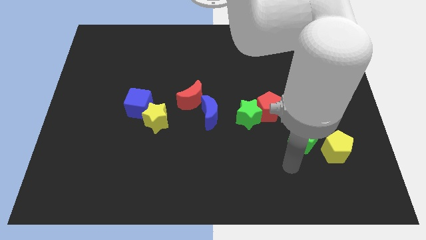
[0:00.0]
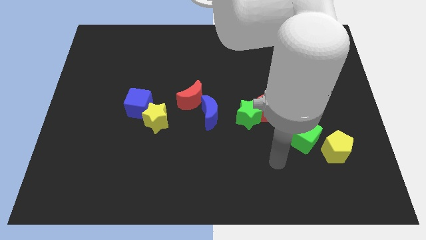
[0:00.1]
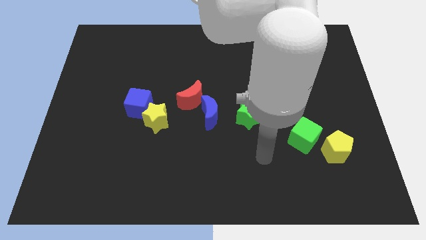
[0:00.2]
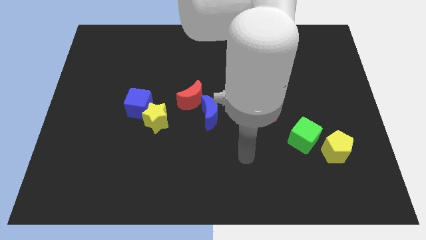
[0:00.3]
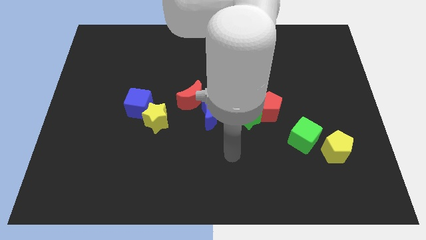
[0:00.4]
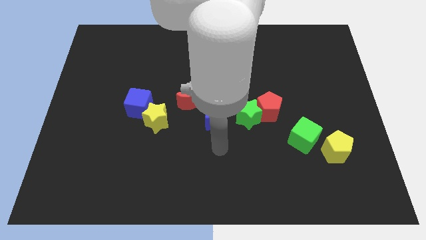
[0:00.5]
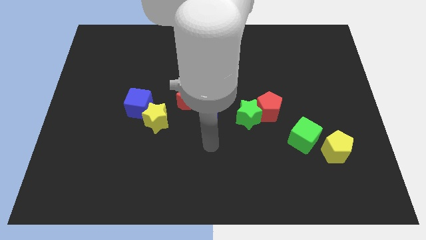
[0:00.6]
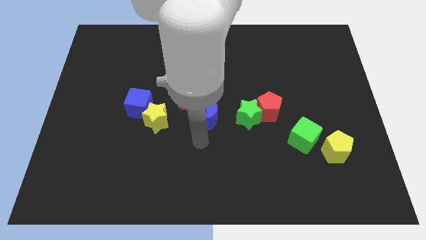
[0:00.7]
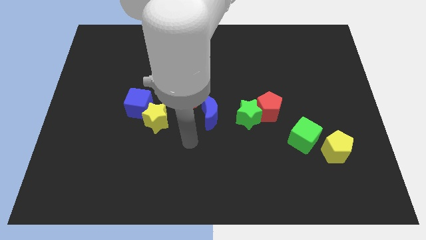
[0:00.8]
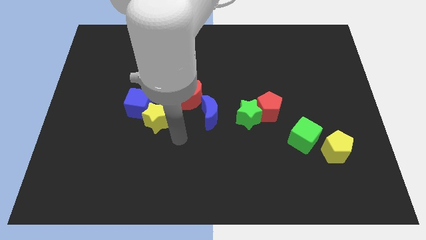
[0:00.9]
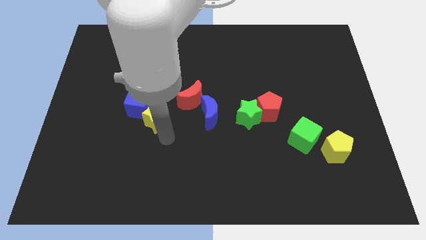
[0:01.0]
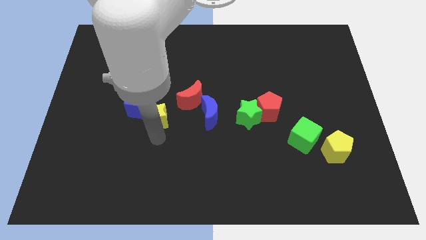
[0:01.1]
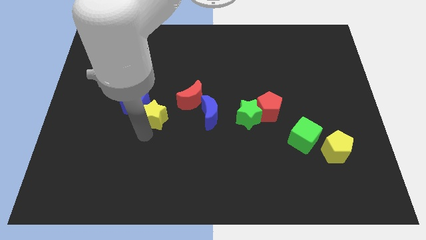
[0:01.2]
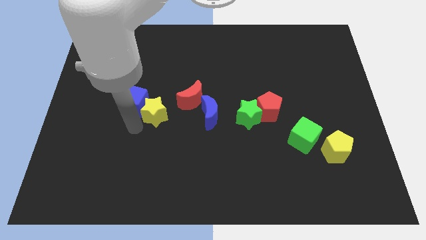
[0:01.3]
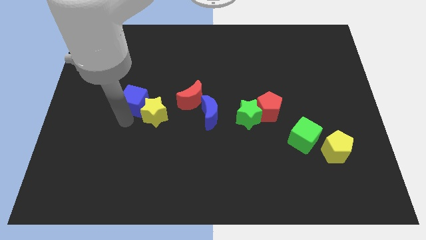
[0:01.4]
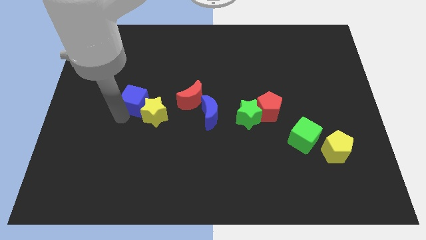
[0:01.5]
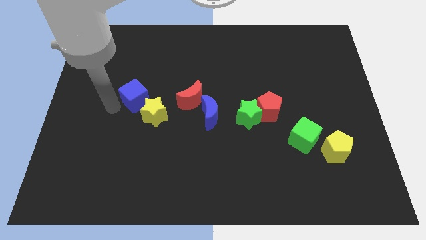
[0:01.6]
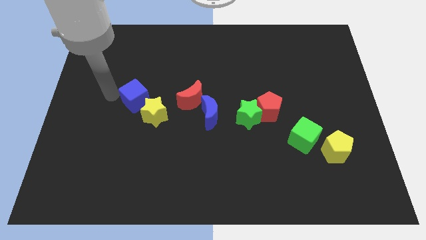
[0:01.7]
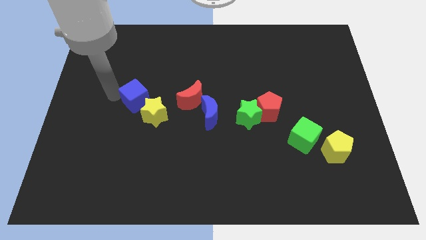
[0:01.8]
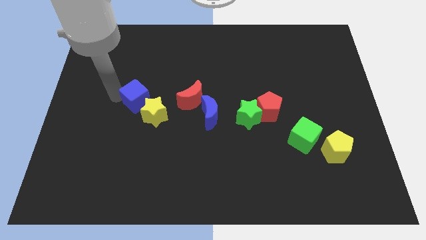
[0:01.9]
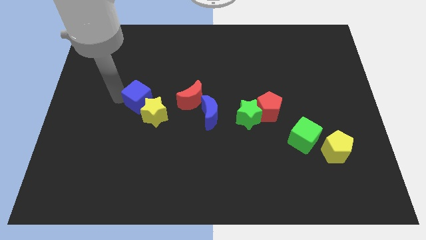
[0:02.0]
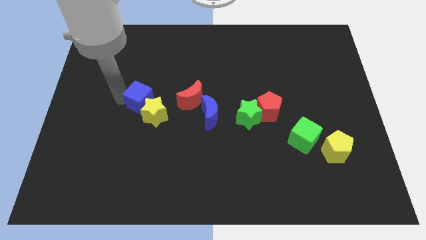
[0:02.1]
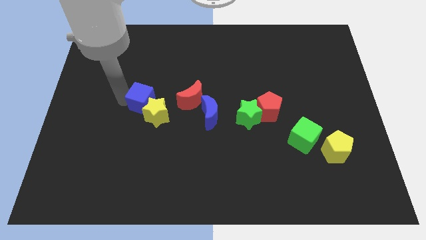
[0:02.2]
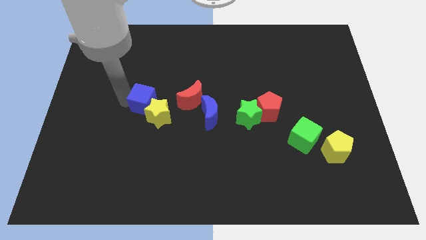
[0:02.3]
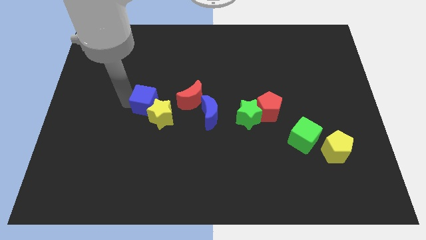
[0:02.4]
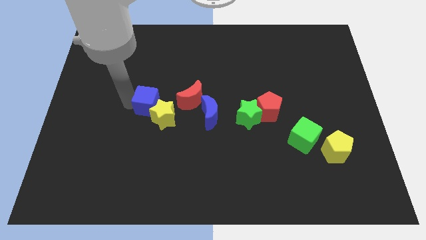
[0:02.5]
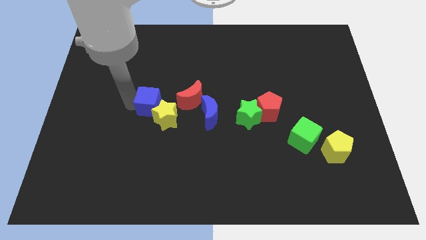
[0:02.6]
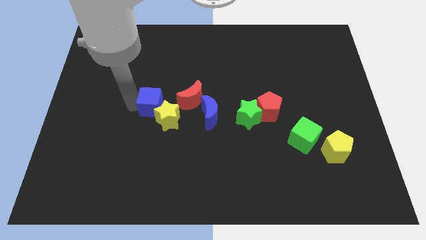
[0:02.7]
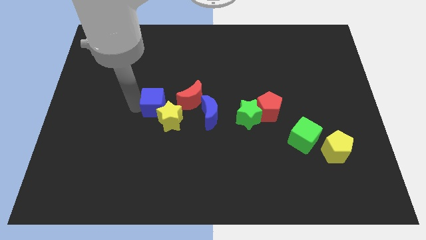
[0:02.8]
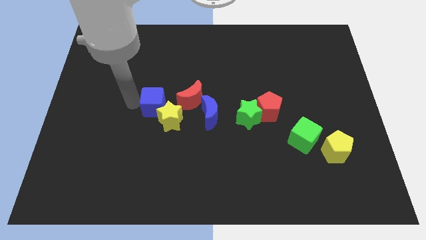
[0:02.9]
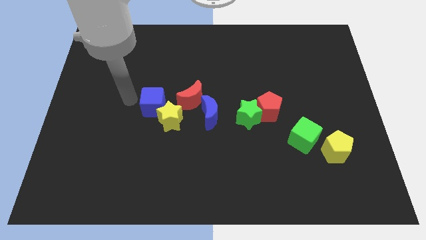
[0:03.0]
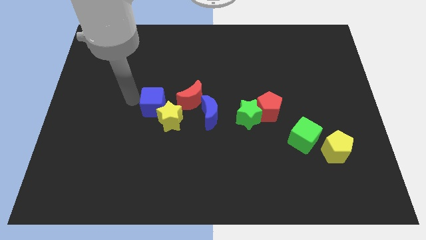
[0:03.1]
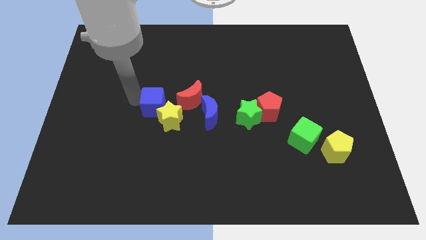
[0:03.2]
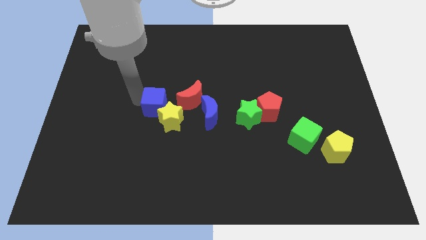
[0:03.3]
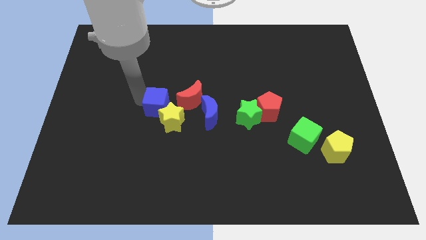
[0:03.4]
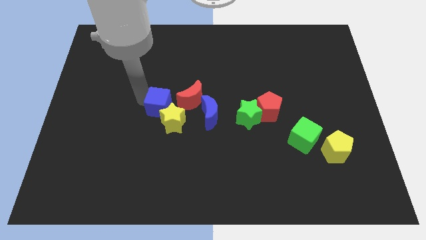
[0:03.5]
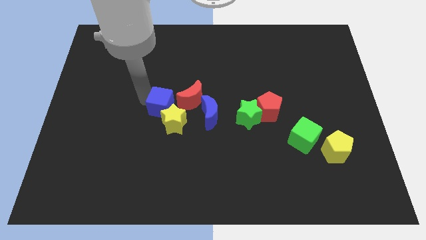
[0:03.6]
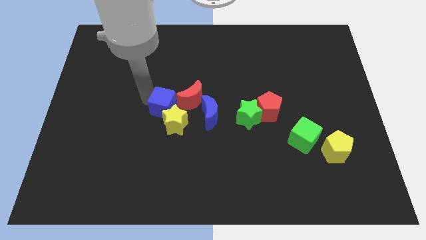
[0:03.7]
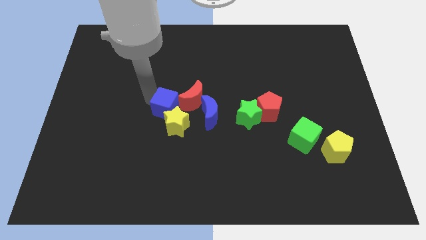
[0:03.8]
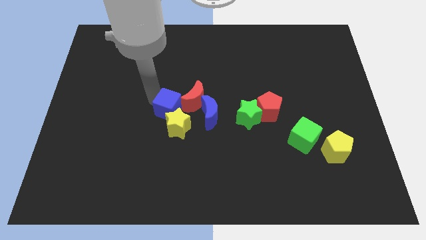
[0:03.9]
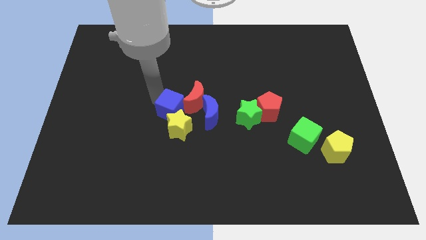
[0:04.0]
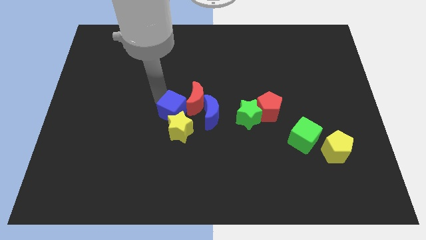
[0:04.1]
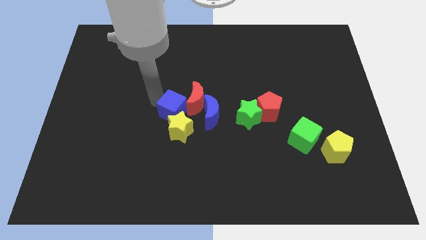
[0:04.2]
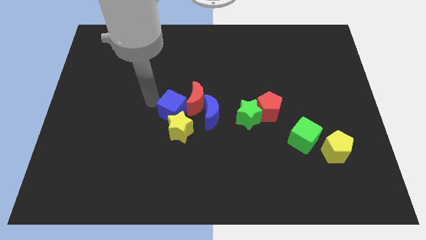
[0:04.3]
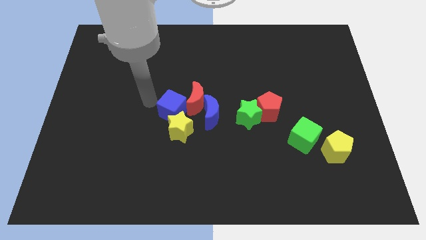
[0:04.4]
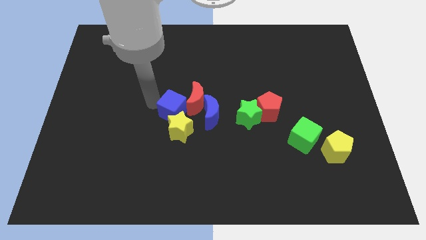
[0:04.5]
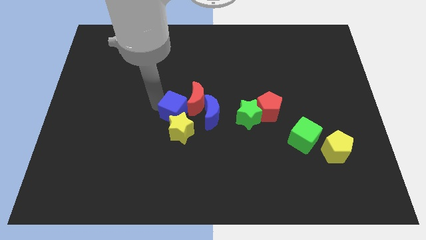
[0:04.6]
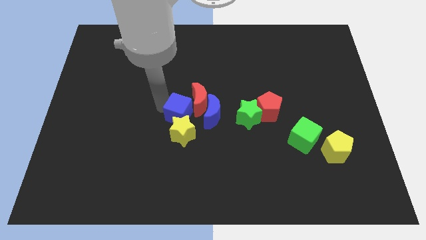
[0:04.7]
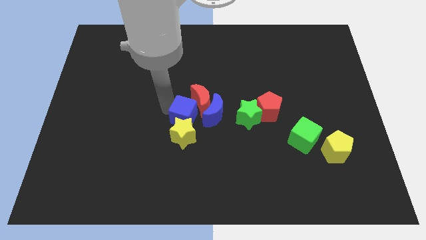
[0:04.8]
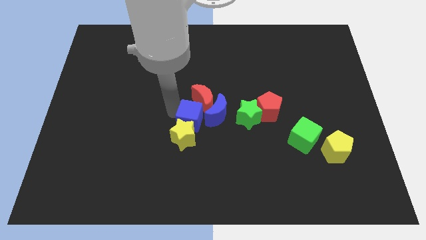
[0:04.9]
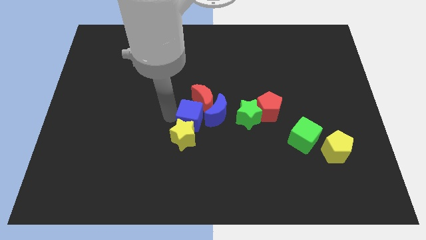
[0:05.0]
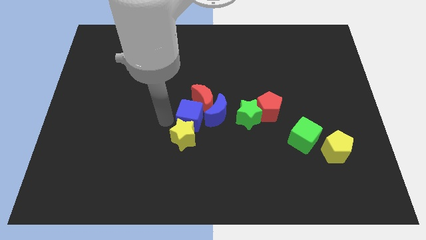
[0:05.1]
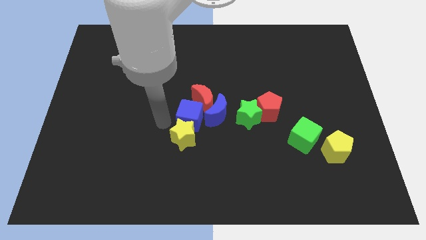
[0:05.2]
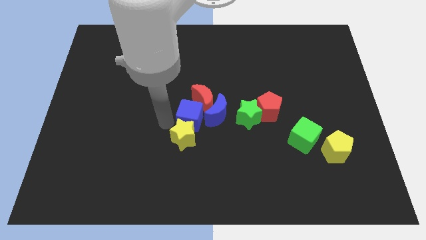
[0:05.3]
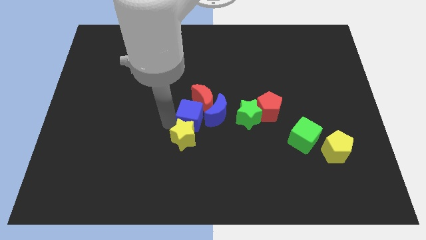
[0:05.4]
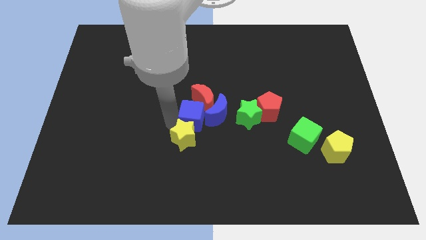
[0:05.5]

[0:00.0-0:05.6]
slide the blue cube next to the blue moon

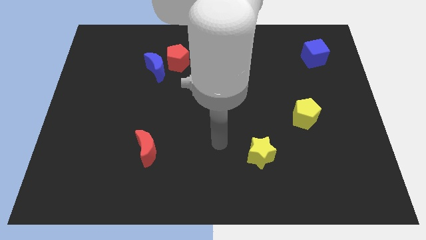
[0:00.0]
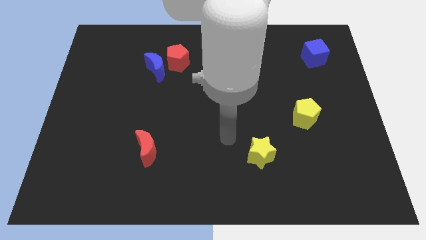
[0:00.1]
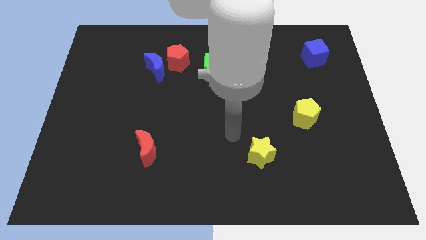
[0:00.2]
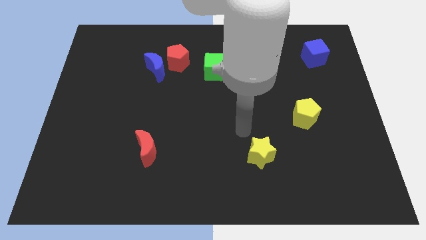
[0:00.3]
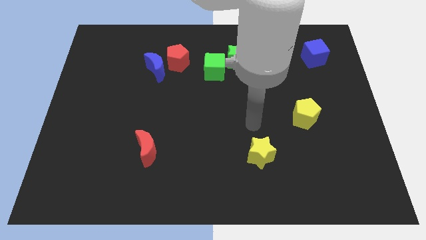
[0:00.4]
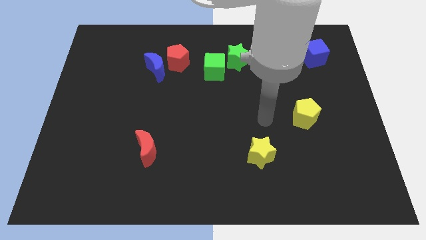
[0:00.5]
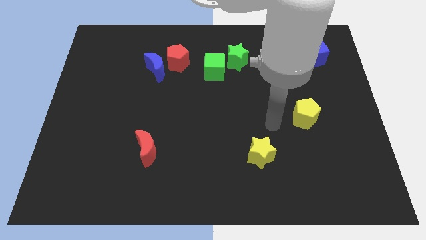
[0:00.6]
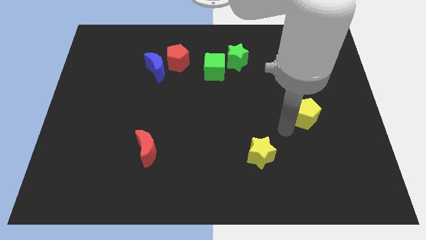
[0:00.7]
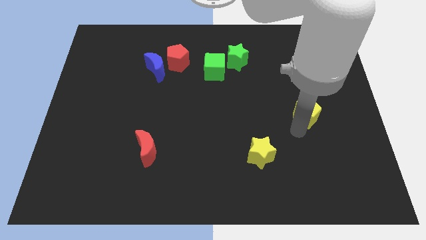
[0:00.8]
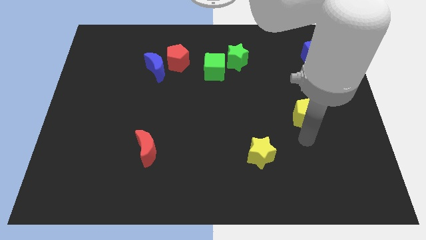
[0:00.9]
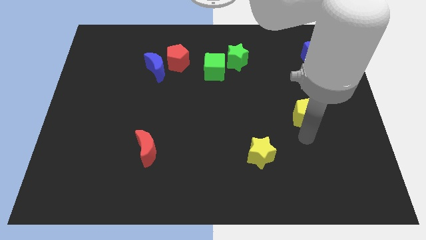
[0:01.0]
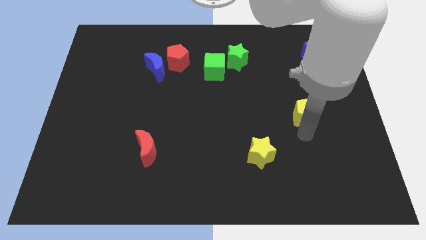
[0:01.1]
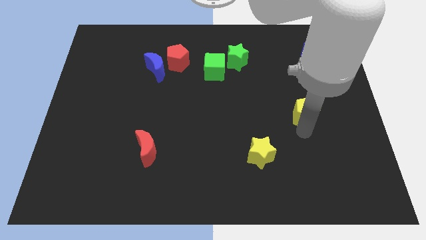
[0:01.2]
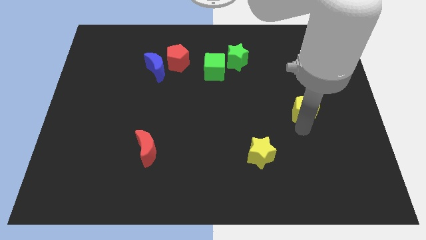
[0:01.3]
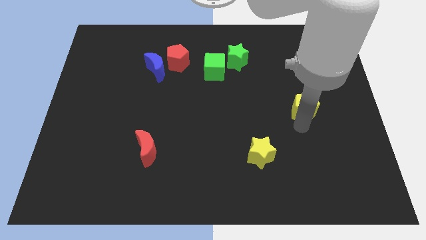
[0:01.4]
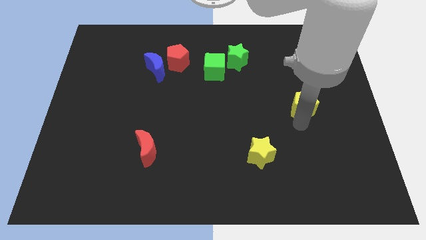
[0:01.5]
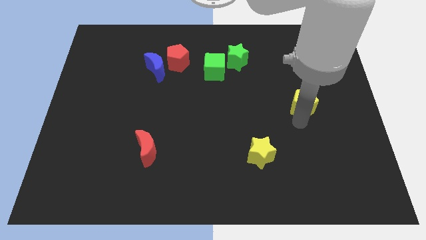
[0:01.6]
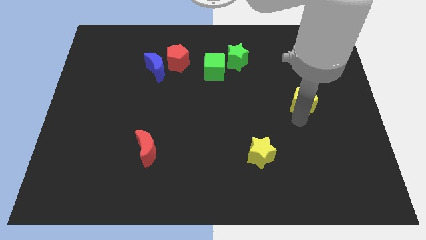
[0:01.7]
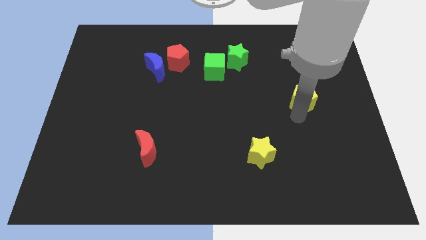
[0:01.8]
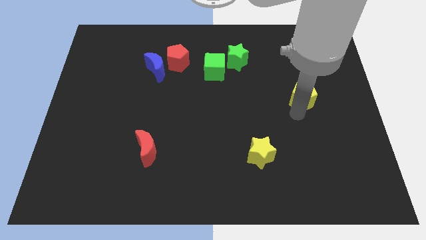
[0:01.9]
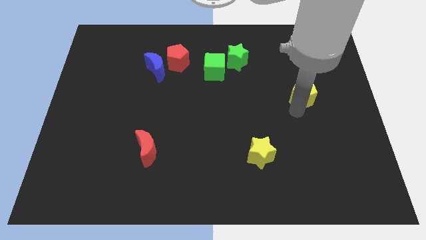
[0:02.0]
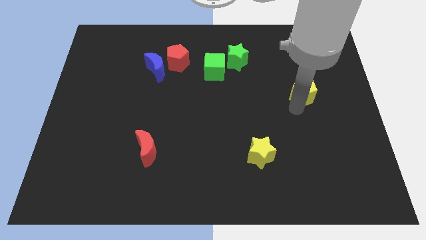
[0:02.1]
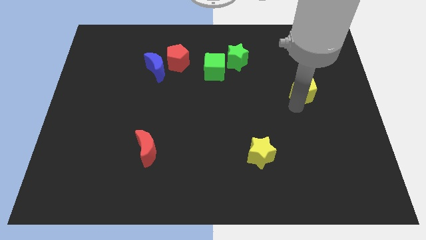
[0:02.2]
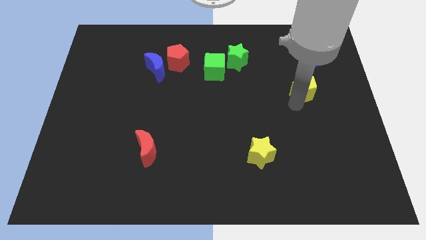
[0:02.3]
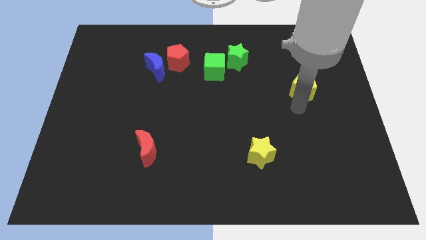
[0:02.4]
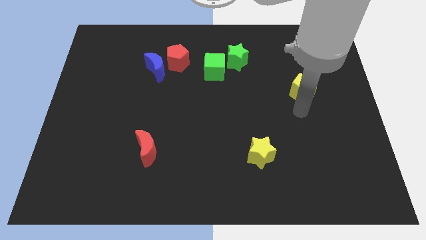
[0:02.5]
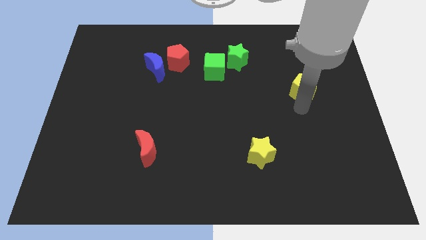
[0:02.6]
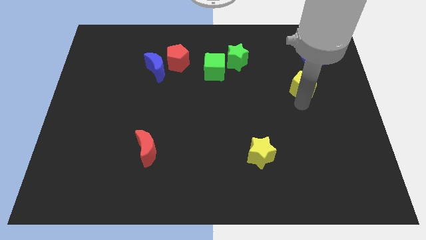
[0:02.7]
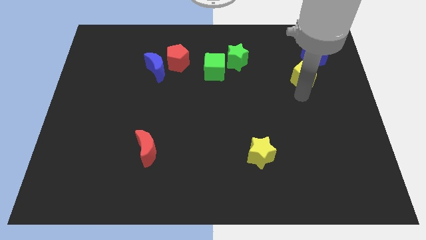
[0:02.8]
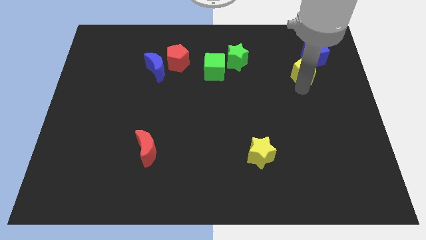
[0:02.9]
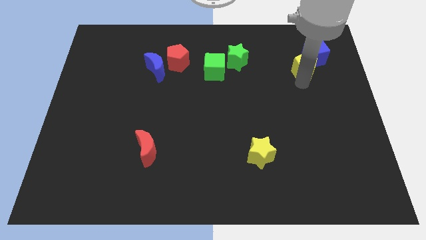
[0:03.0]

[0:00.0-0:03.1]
move the yellow pentagon towards the blue cube
